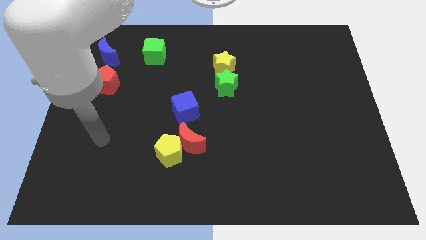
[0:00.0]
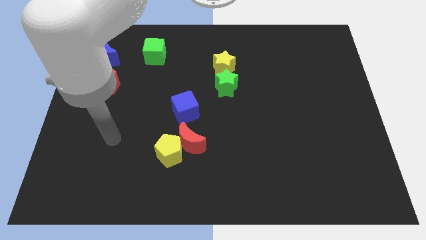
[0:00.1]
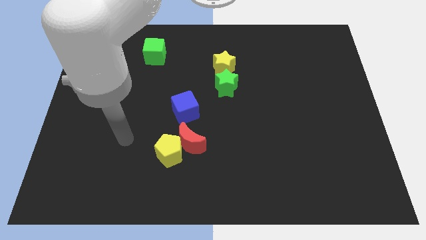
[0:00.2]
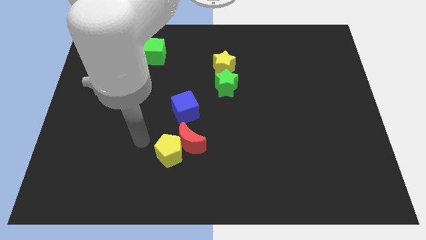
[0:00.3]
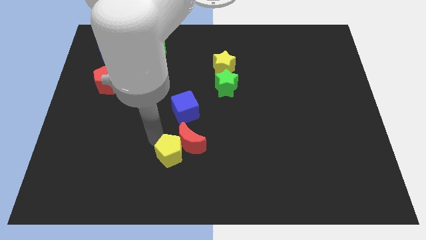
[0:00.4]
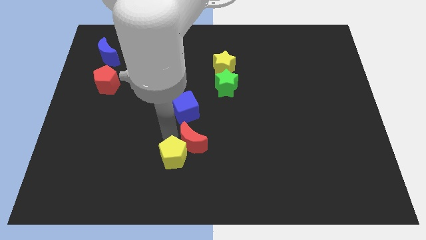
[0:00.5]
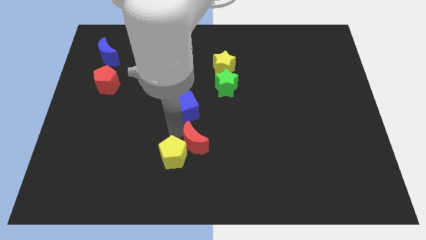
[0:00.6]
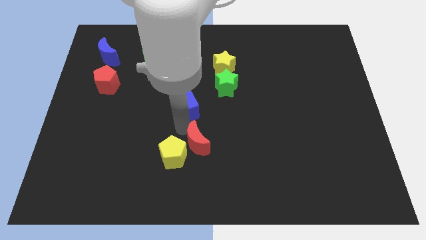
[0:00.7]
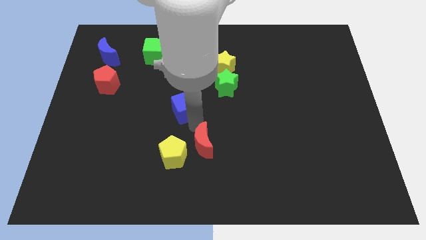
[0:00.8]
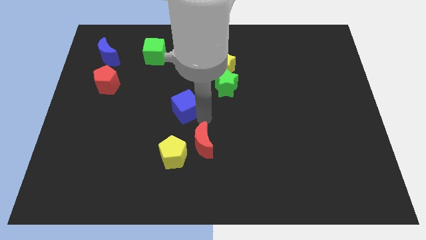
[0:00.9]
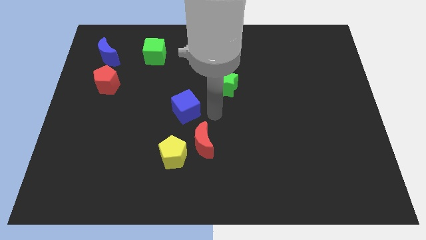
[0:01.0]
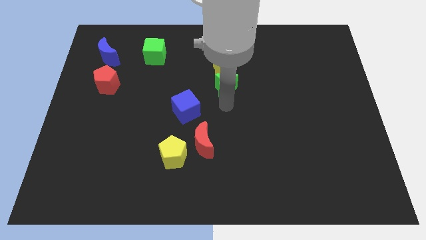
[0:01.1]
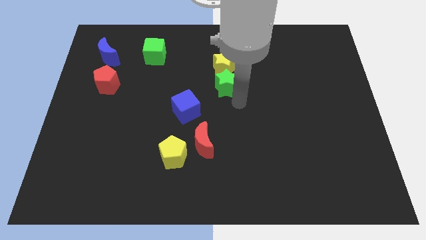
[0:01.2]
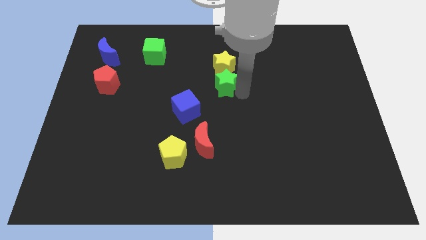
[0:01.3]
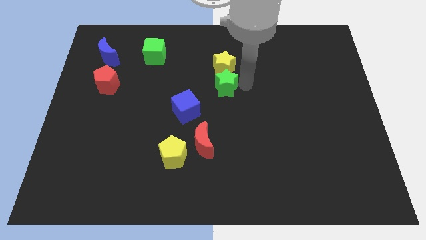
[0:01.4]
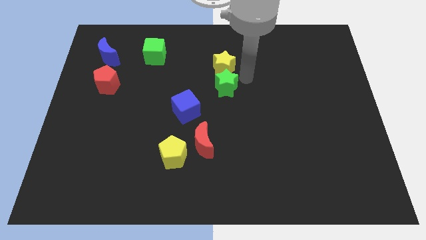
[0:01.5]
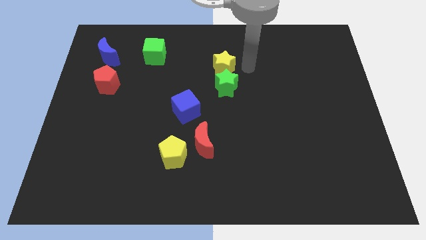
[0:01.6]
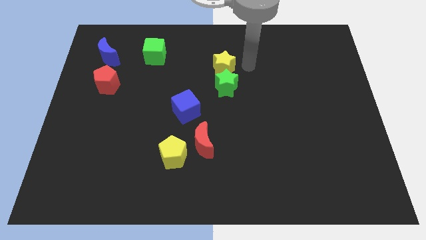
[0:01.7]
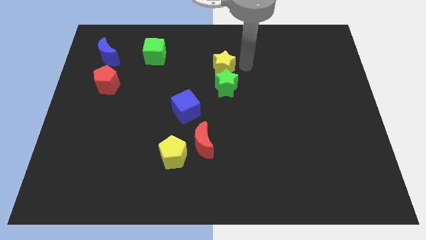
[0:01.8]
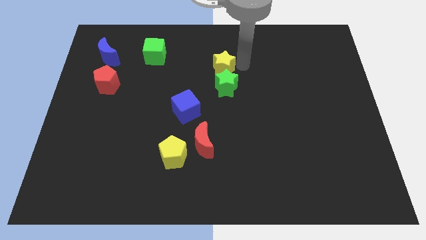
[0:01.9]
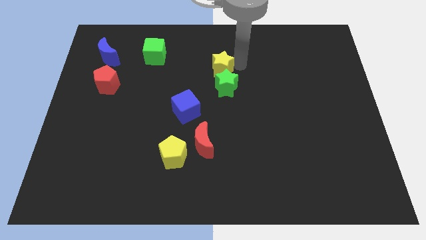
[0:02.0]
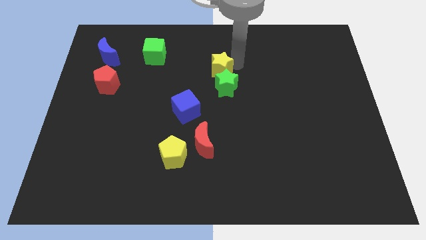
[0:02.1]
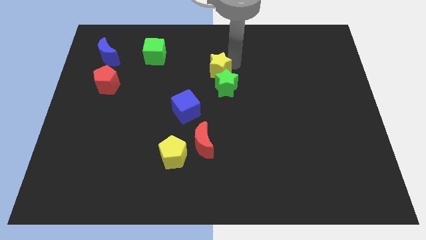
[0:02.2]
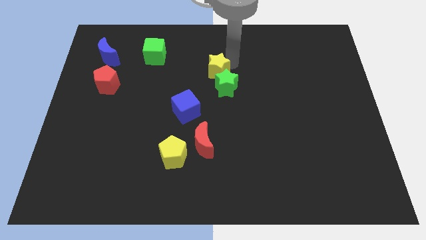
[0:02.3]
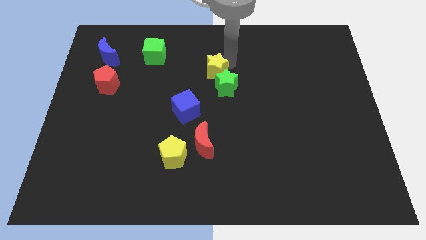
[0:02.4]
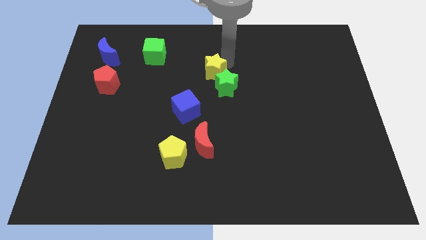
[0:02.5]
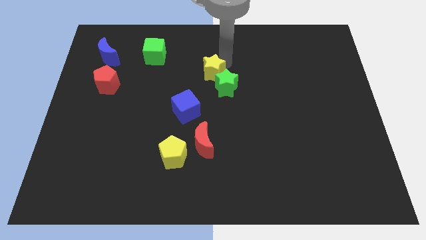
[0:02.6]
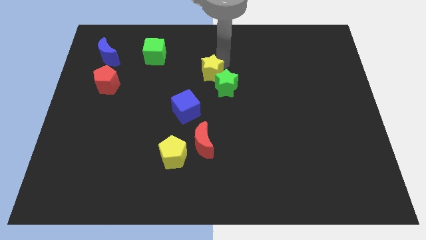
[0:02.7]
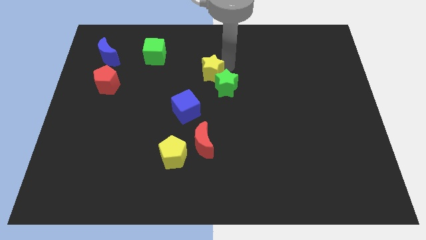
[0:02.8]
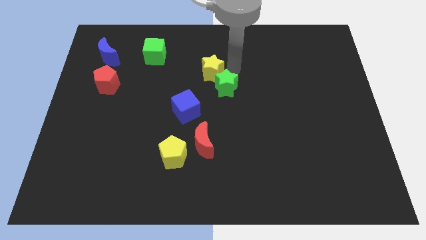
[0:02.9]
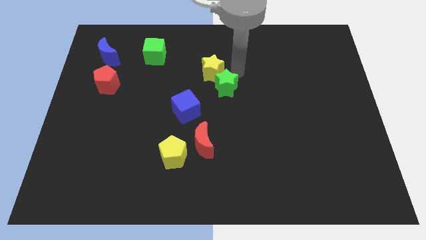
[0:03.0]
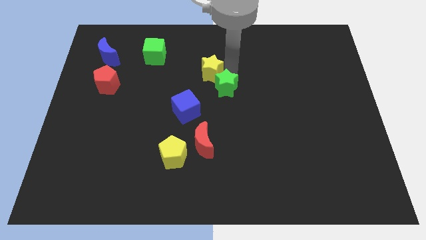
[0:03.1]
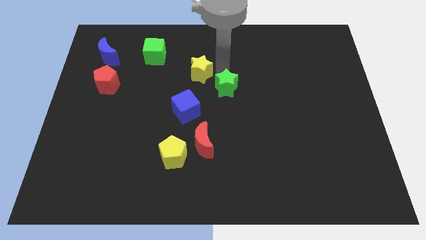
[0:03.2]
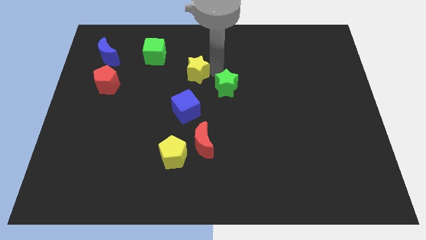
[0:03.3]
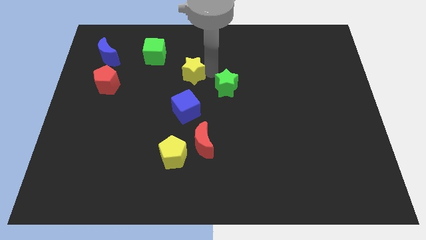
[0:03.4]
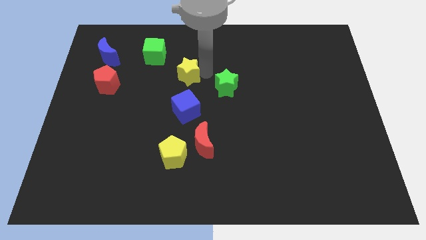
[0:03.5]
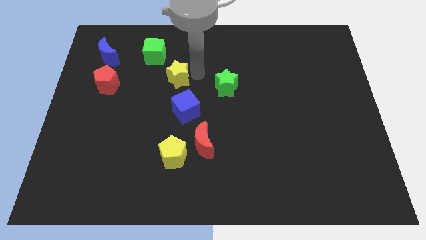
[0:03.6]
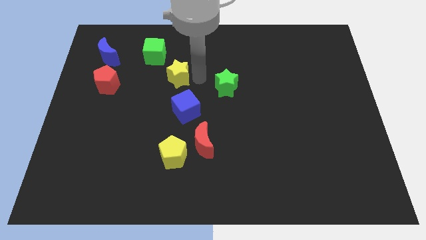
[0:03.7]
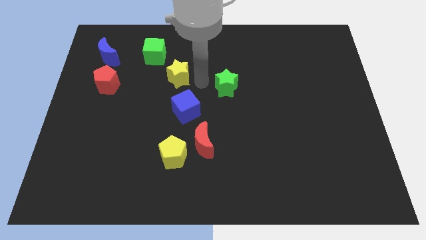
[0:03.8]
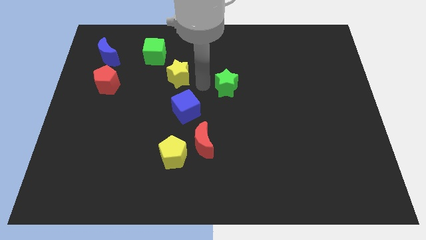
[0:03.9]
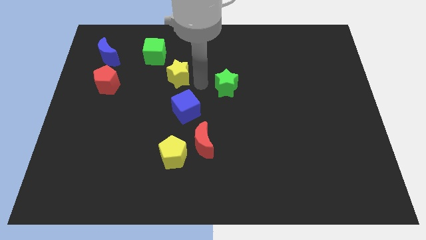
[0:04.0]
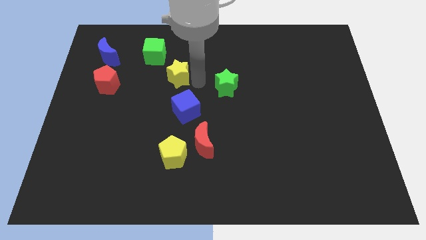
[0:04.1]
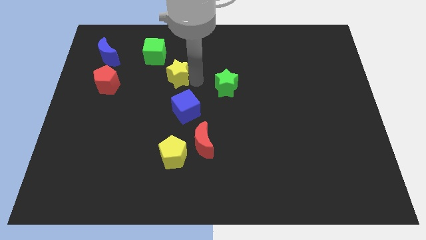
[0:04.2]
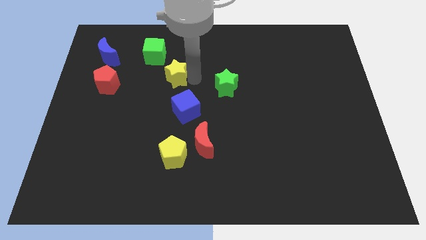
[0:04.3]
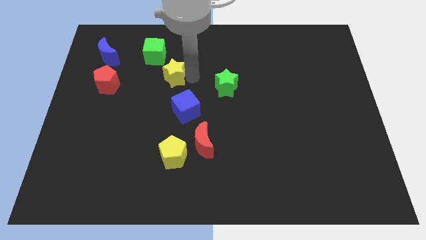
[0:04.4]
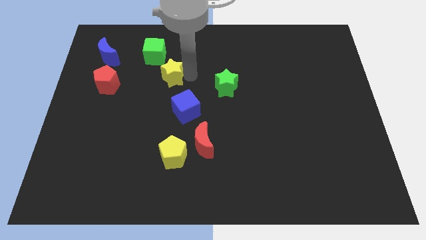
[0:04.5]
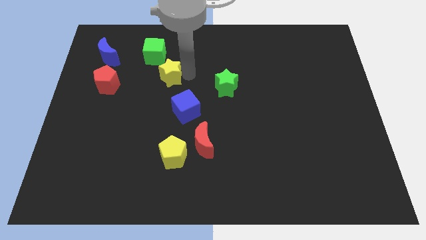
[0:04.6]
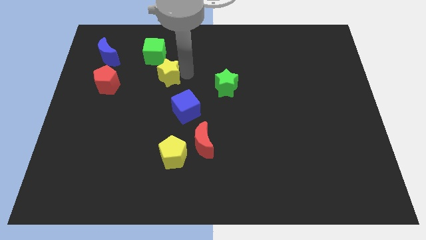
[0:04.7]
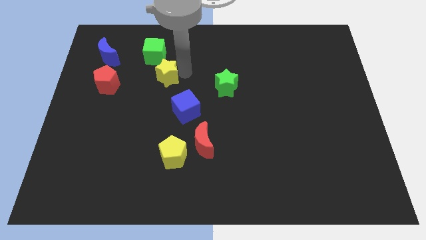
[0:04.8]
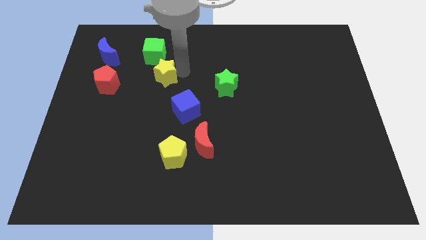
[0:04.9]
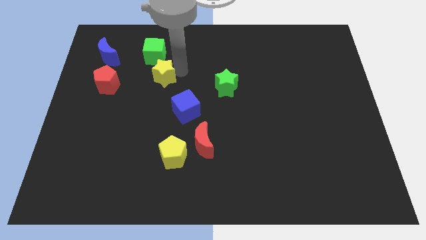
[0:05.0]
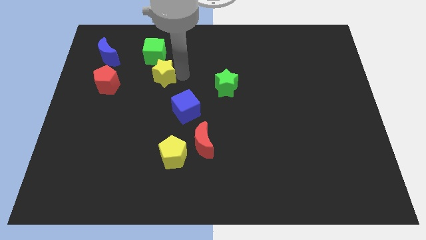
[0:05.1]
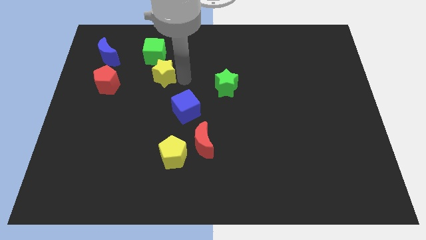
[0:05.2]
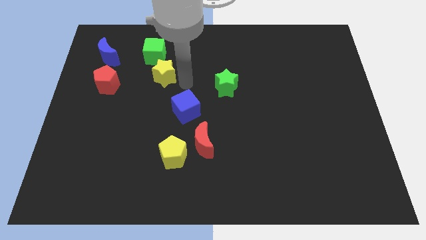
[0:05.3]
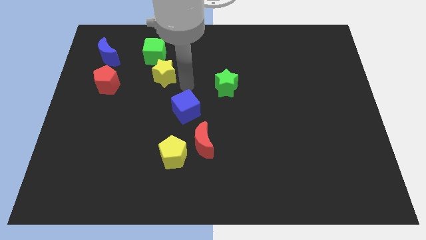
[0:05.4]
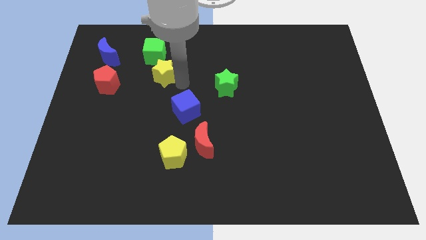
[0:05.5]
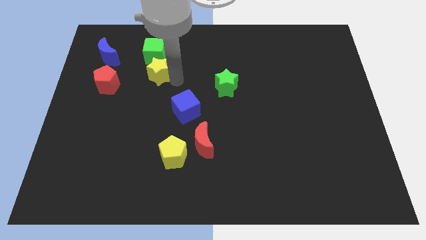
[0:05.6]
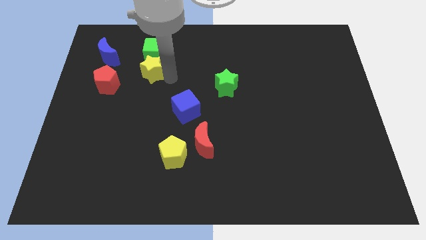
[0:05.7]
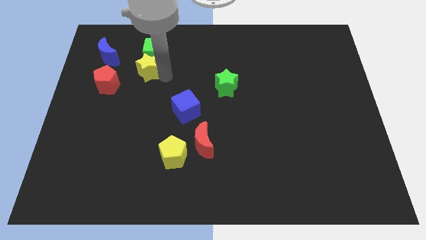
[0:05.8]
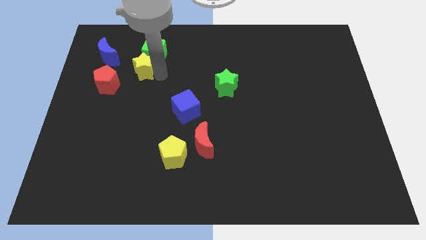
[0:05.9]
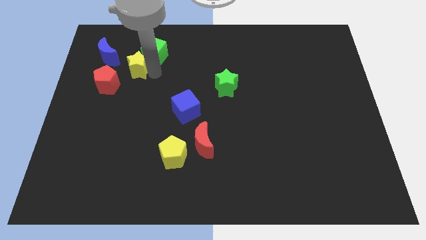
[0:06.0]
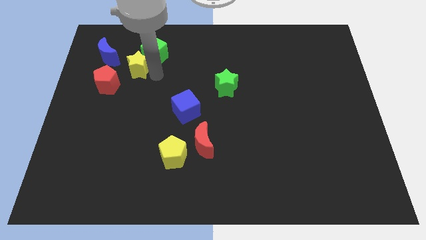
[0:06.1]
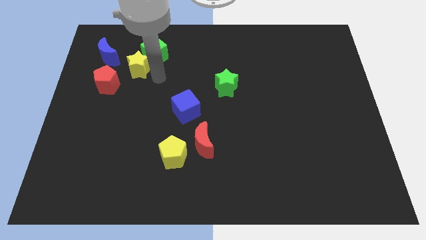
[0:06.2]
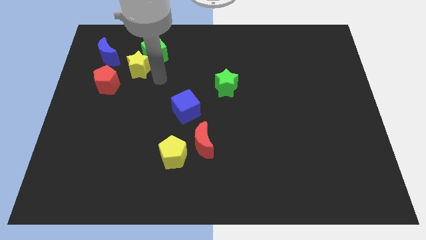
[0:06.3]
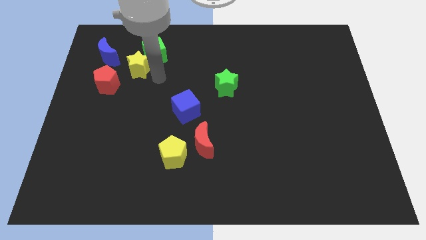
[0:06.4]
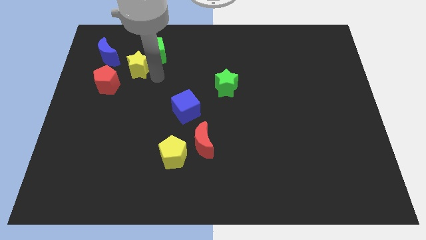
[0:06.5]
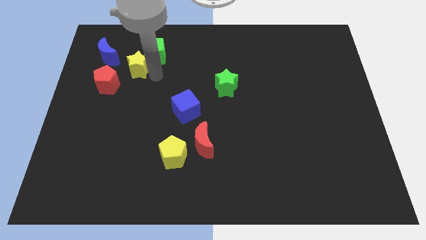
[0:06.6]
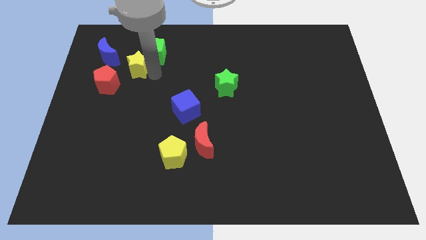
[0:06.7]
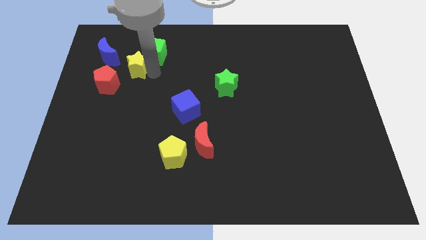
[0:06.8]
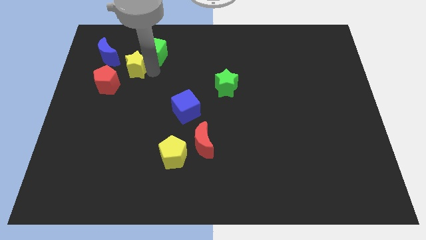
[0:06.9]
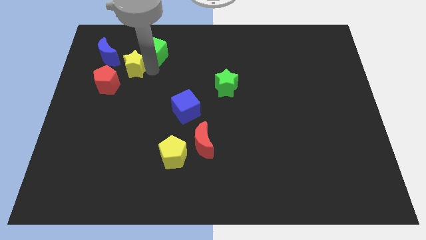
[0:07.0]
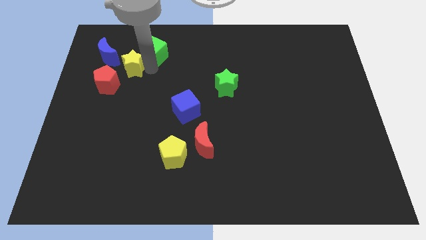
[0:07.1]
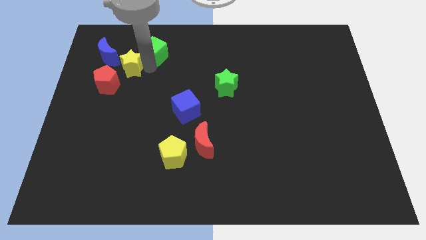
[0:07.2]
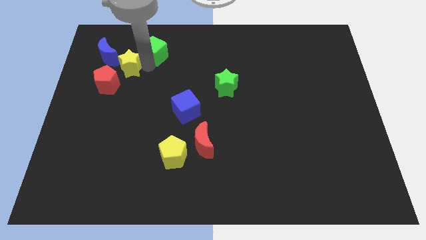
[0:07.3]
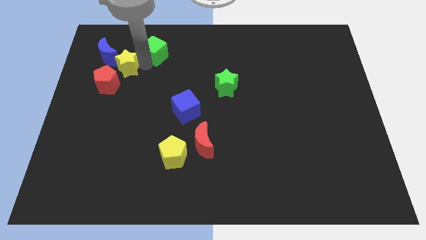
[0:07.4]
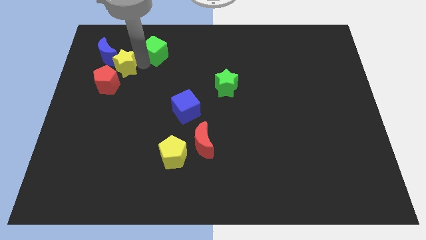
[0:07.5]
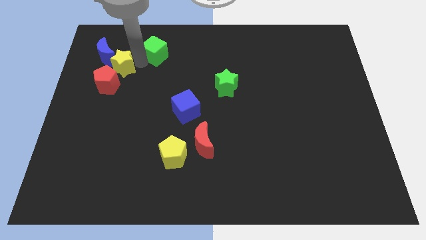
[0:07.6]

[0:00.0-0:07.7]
slide the yellow star to the blue moon
